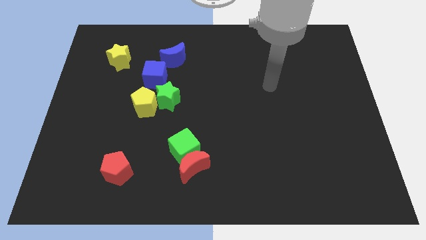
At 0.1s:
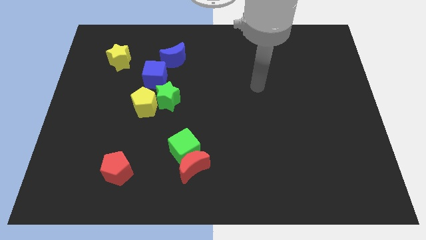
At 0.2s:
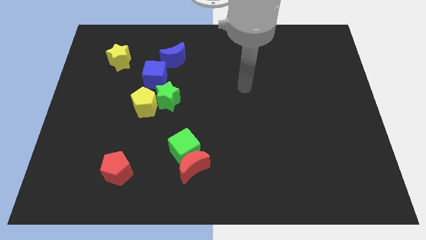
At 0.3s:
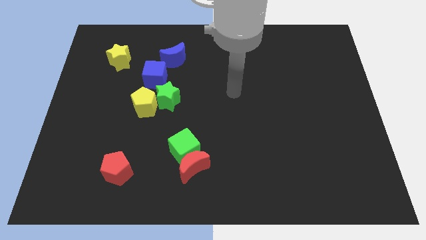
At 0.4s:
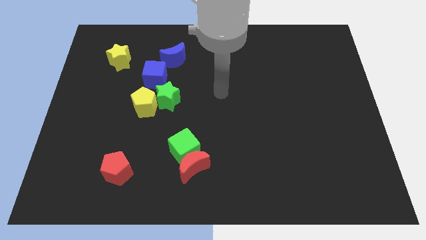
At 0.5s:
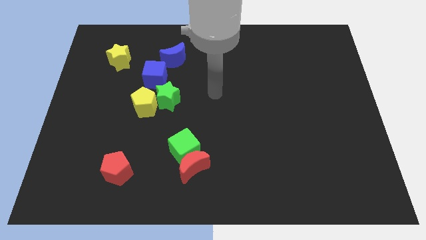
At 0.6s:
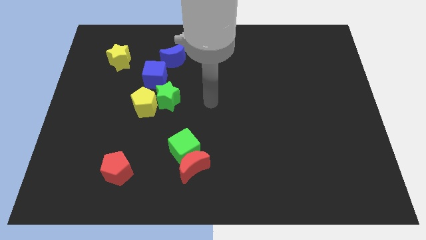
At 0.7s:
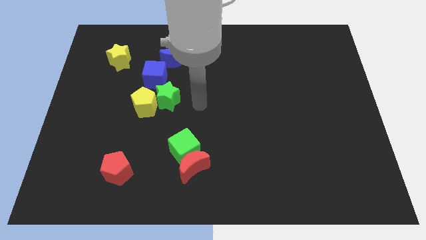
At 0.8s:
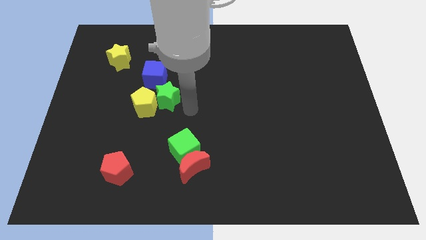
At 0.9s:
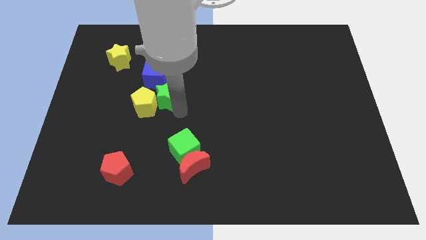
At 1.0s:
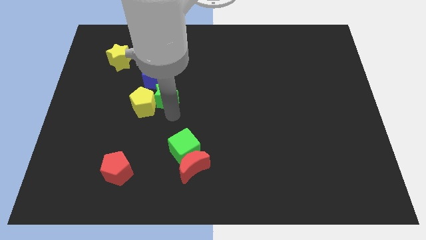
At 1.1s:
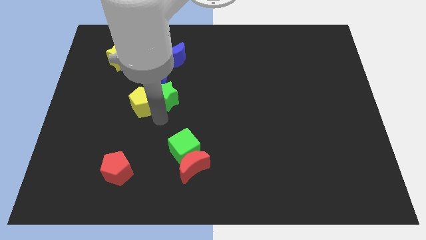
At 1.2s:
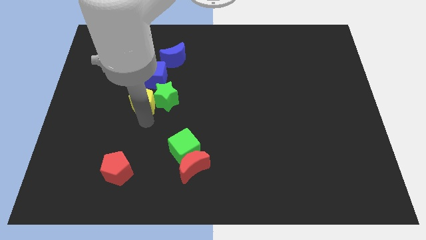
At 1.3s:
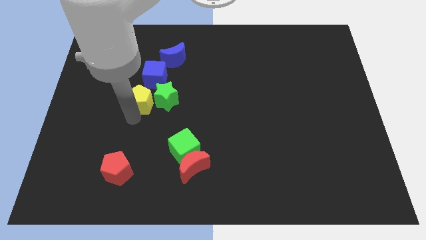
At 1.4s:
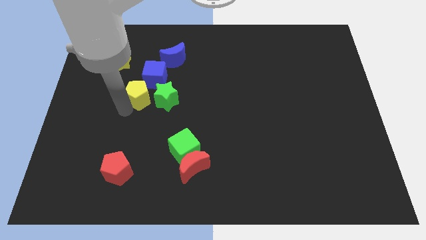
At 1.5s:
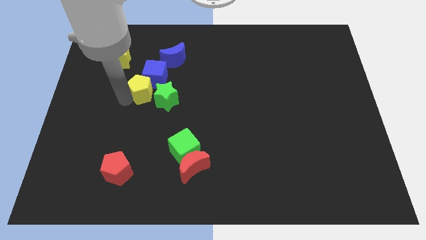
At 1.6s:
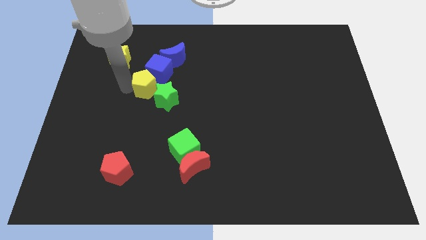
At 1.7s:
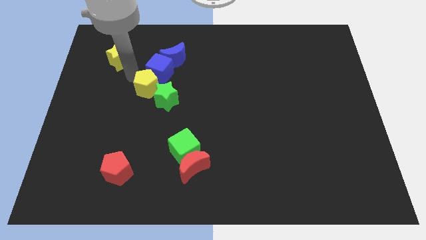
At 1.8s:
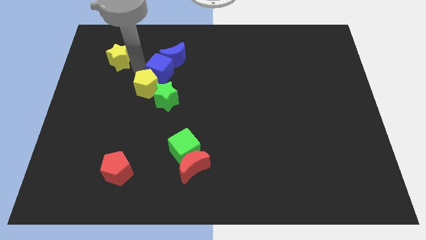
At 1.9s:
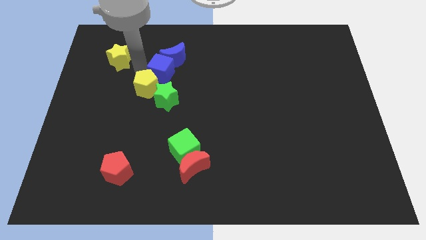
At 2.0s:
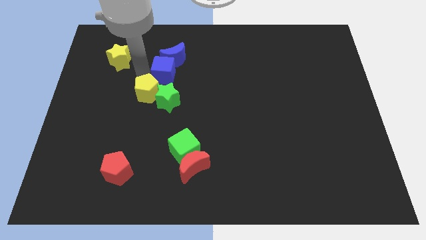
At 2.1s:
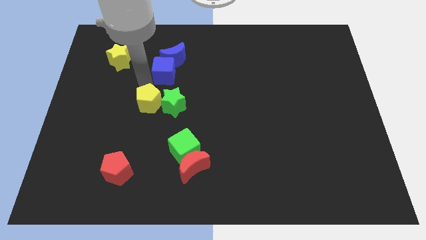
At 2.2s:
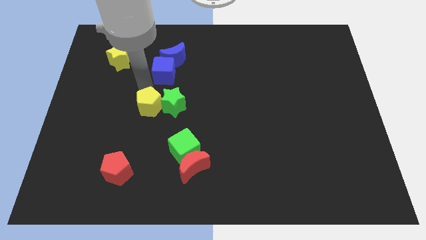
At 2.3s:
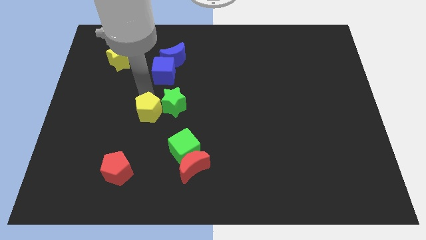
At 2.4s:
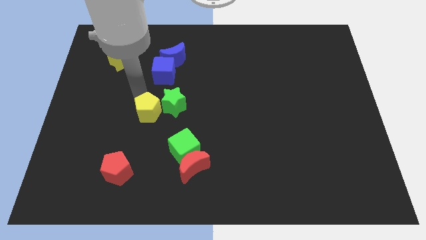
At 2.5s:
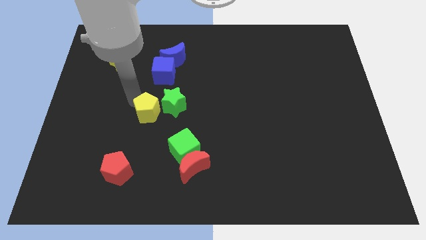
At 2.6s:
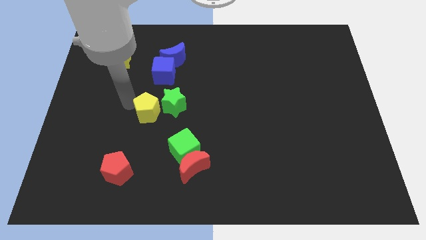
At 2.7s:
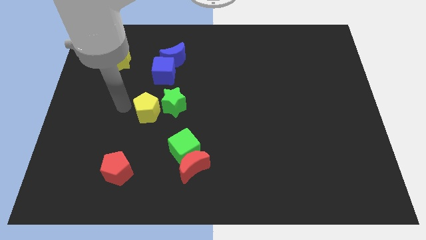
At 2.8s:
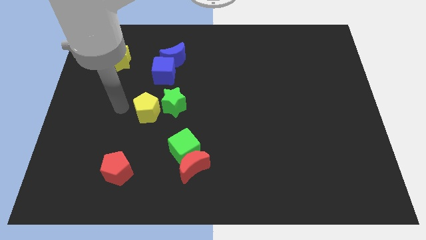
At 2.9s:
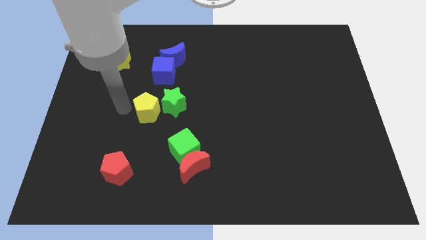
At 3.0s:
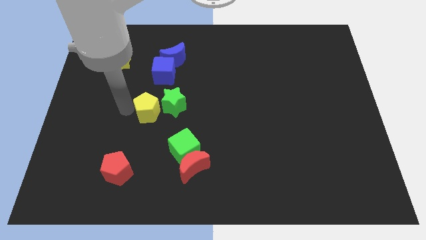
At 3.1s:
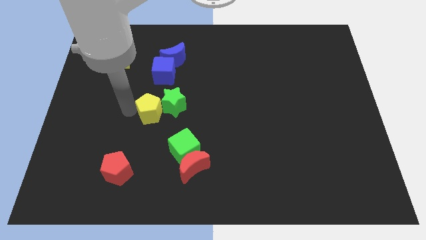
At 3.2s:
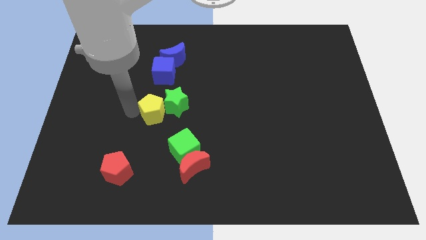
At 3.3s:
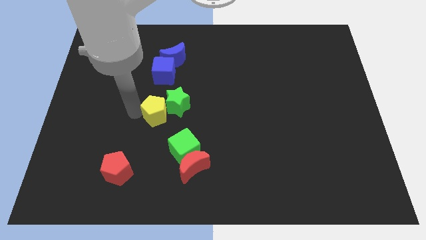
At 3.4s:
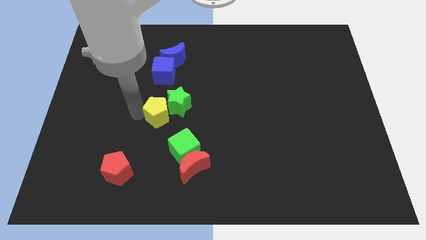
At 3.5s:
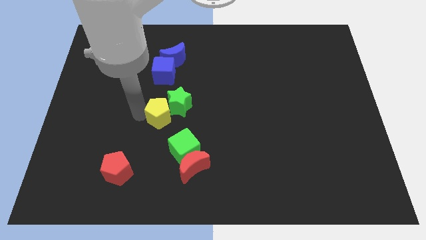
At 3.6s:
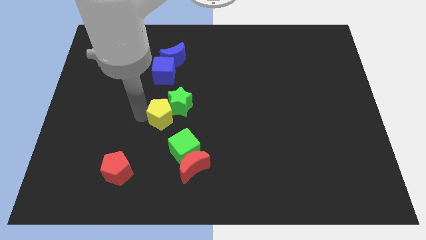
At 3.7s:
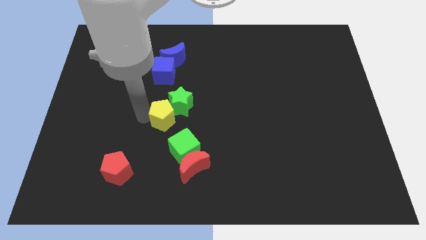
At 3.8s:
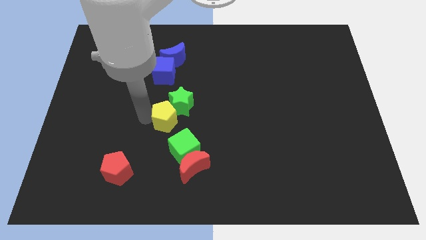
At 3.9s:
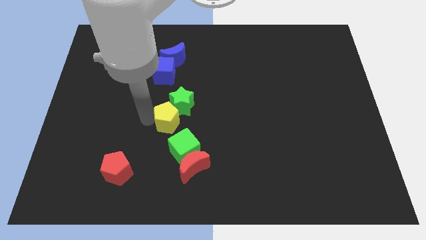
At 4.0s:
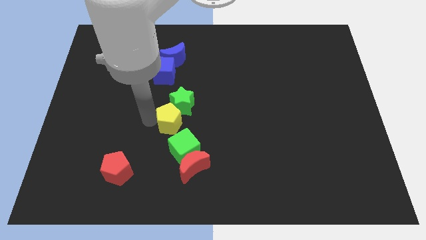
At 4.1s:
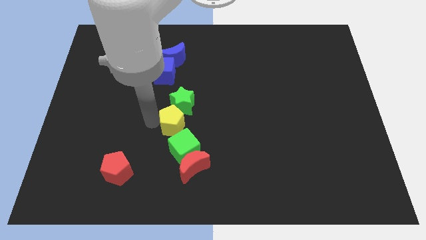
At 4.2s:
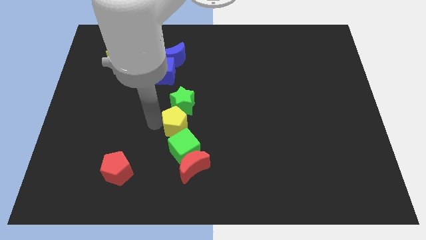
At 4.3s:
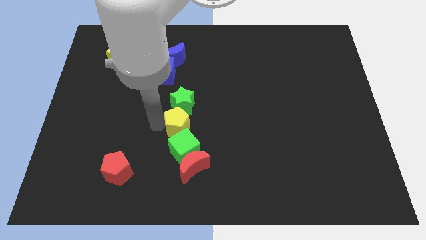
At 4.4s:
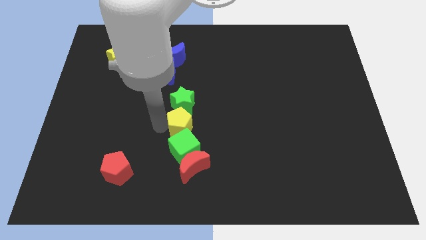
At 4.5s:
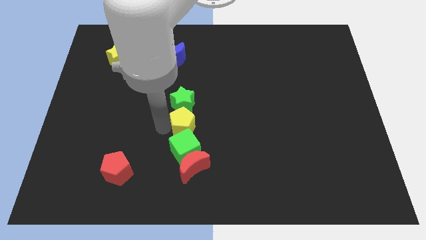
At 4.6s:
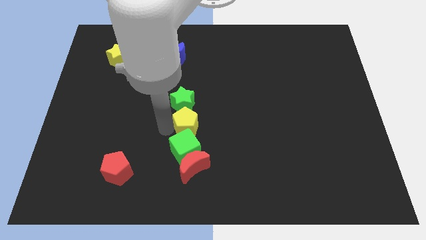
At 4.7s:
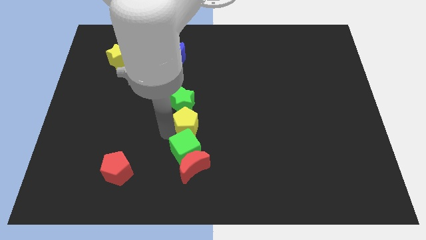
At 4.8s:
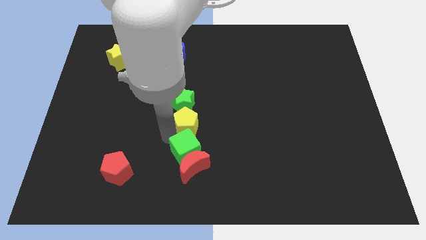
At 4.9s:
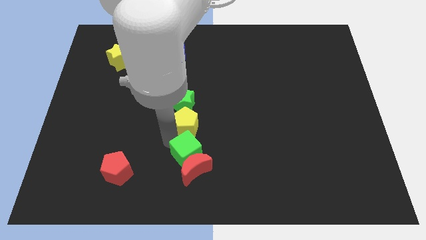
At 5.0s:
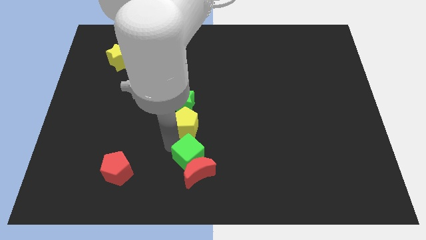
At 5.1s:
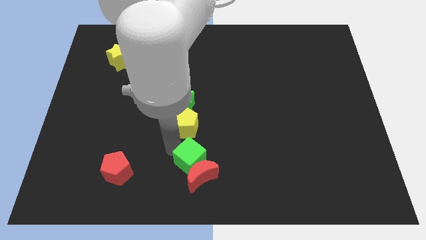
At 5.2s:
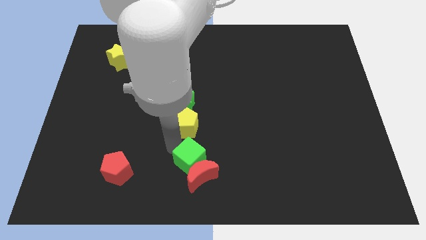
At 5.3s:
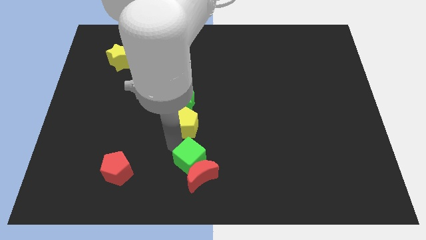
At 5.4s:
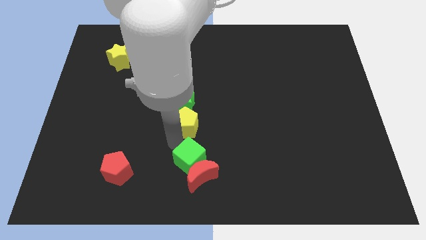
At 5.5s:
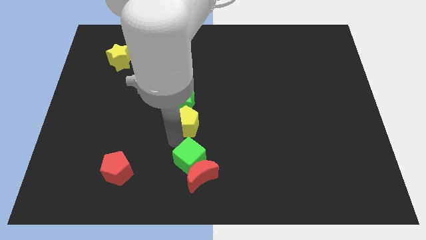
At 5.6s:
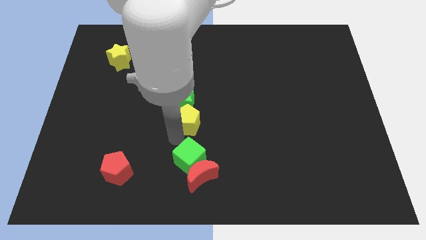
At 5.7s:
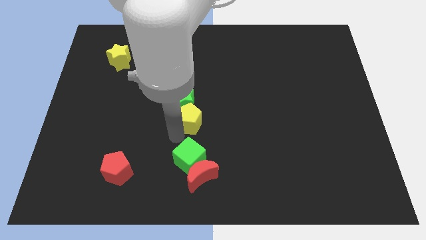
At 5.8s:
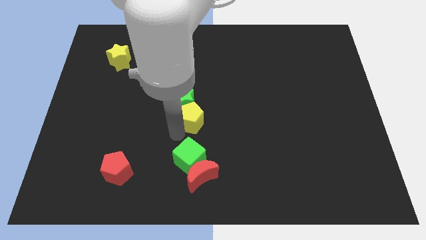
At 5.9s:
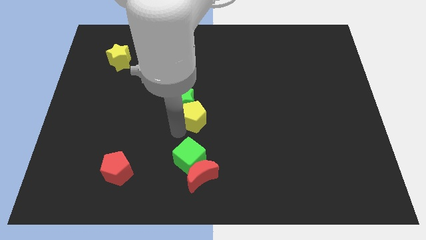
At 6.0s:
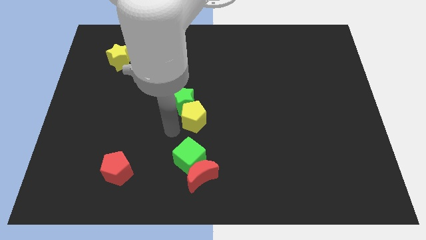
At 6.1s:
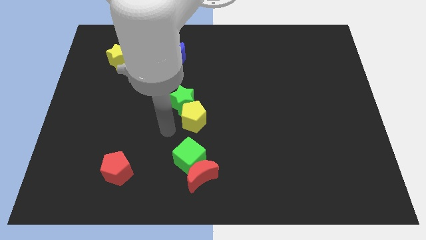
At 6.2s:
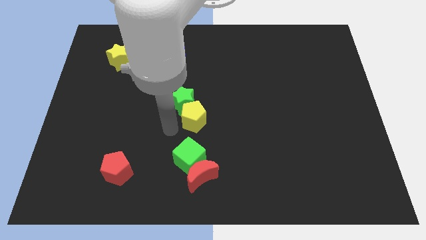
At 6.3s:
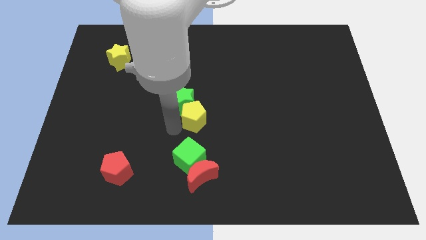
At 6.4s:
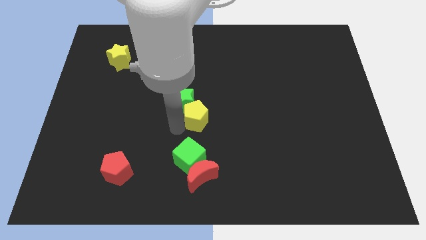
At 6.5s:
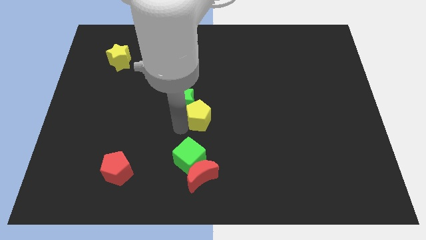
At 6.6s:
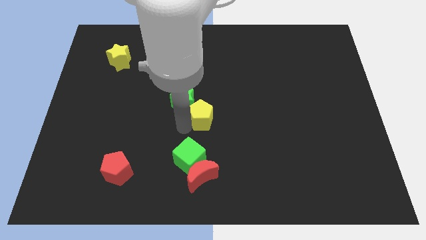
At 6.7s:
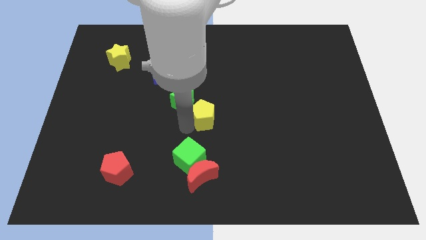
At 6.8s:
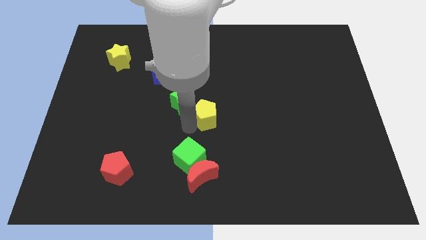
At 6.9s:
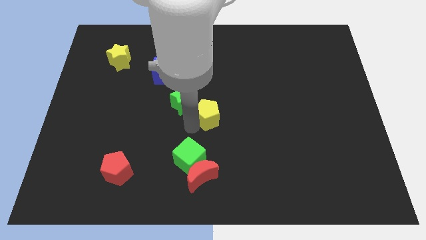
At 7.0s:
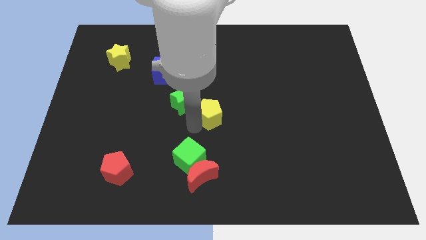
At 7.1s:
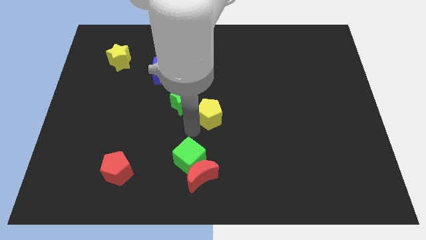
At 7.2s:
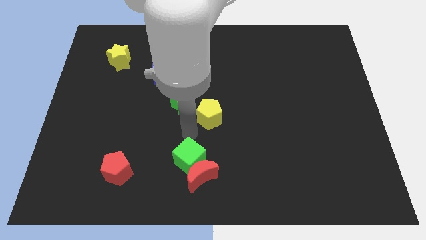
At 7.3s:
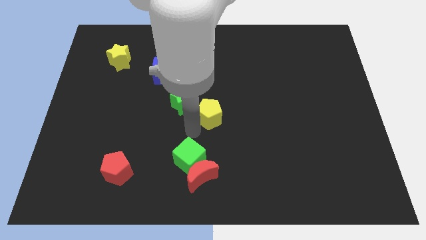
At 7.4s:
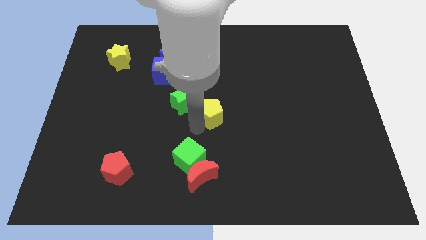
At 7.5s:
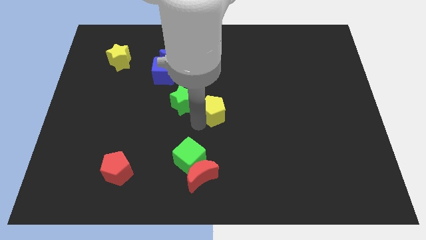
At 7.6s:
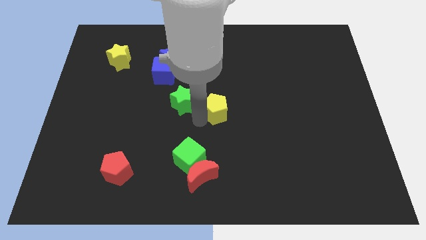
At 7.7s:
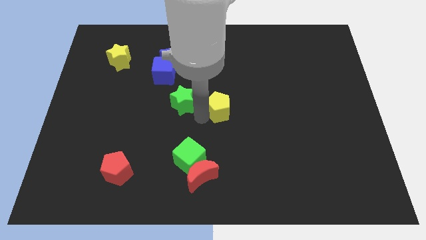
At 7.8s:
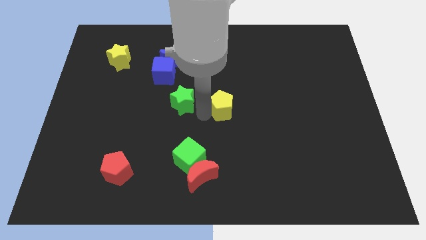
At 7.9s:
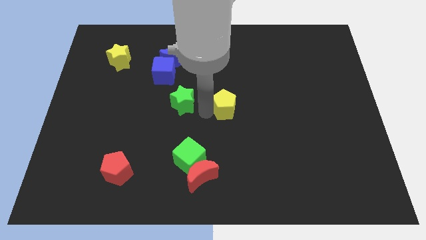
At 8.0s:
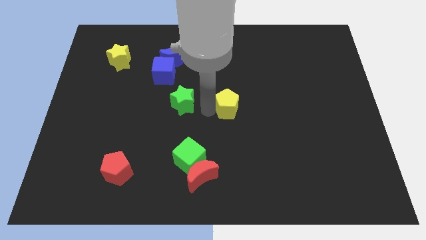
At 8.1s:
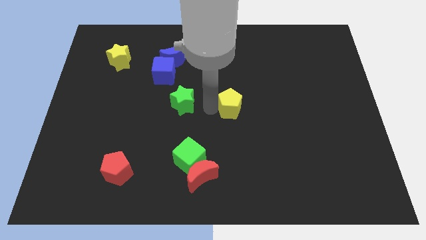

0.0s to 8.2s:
slide the yellow pentagon to the right

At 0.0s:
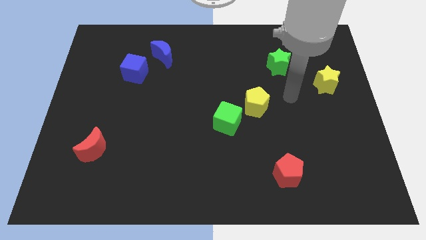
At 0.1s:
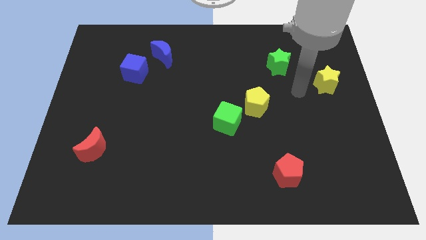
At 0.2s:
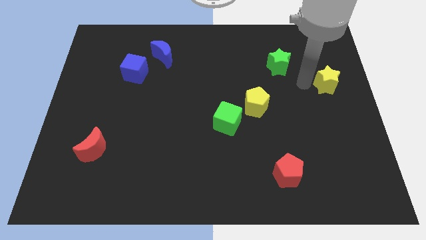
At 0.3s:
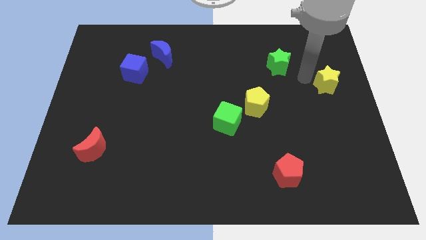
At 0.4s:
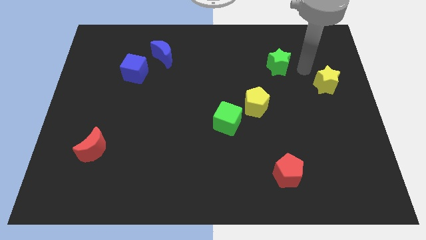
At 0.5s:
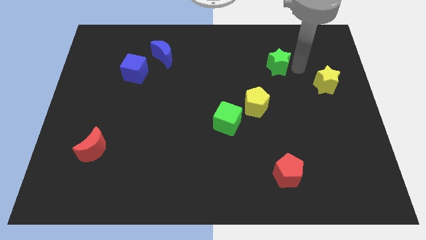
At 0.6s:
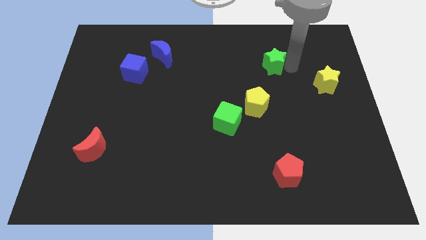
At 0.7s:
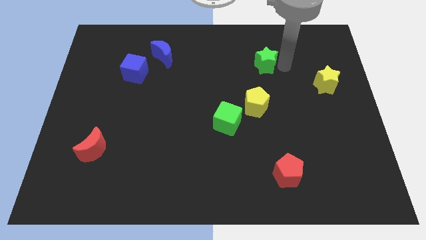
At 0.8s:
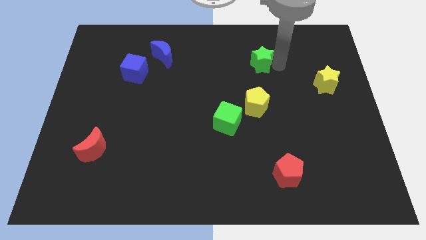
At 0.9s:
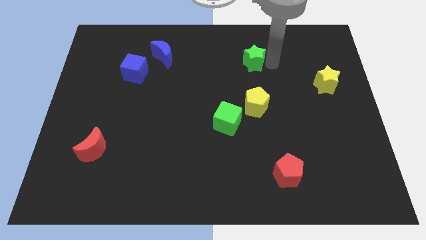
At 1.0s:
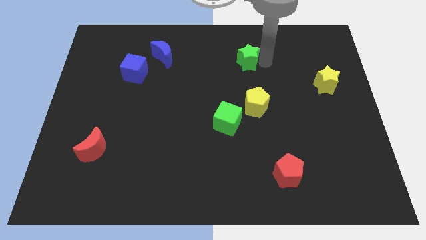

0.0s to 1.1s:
slightly push the green star to the left
